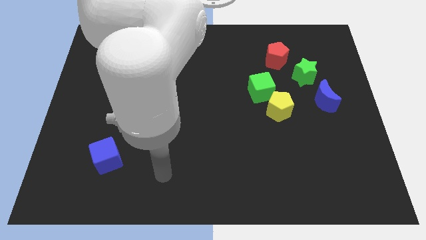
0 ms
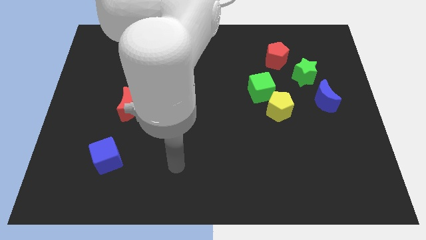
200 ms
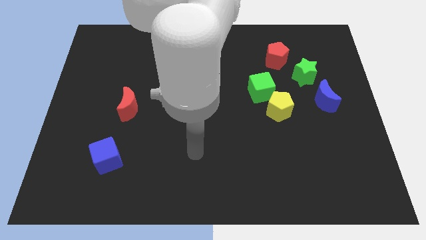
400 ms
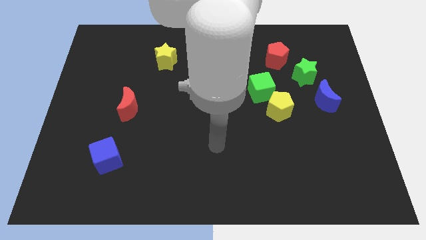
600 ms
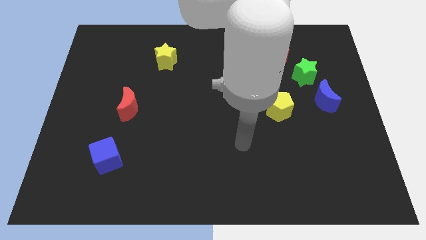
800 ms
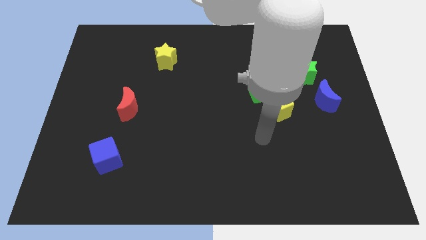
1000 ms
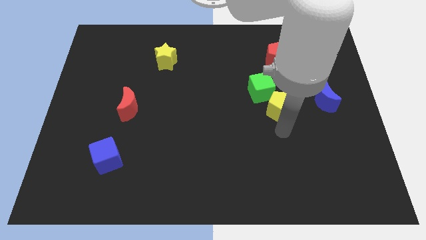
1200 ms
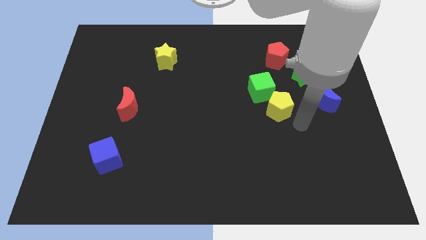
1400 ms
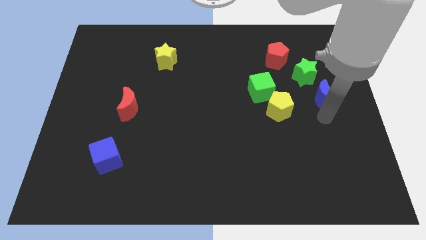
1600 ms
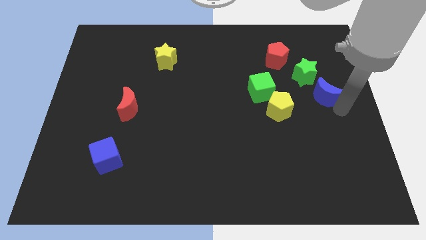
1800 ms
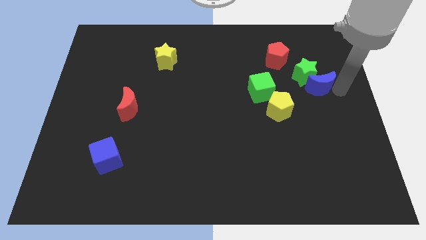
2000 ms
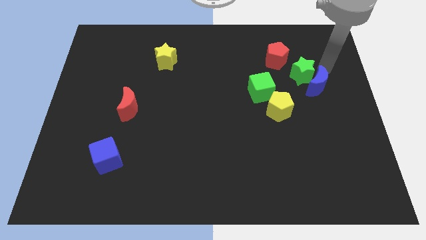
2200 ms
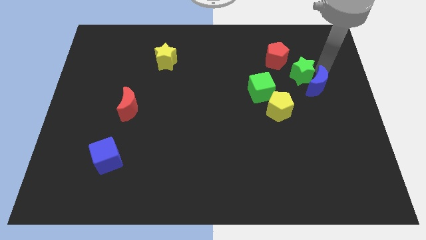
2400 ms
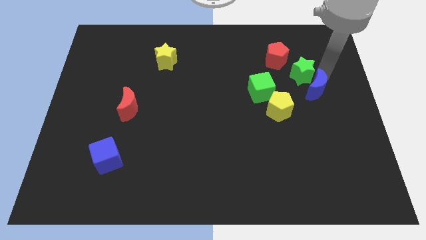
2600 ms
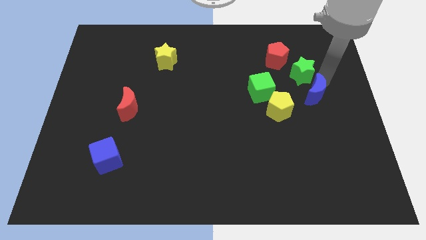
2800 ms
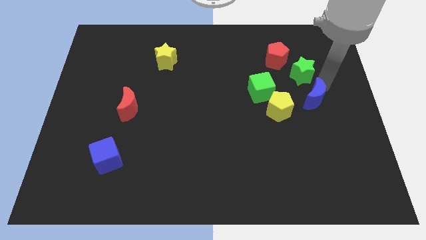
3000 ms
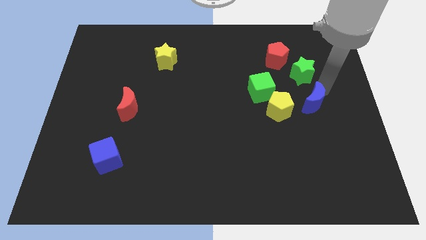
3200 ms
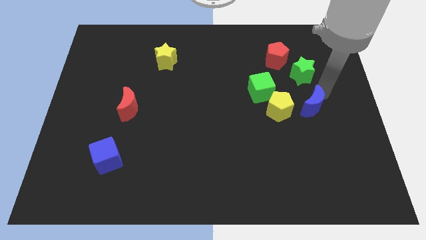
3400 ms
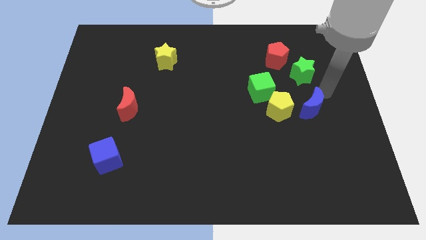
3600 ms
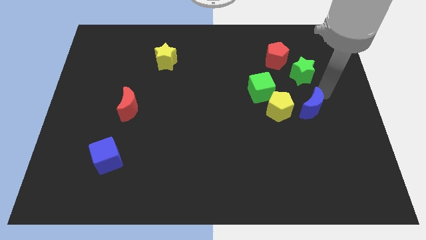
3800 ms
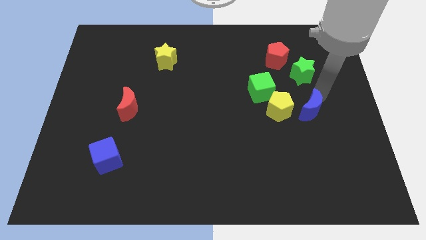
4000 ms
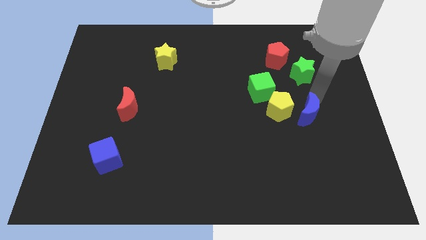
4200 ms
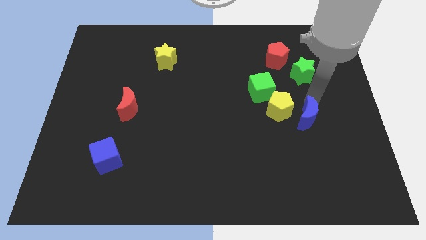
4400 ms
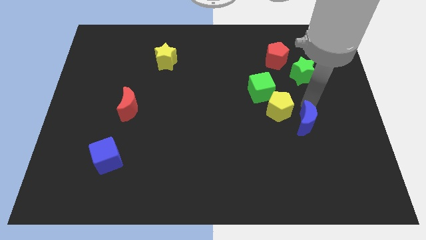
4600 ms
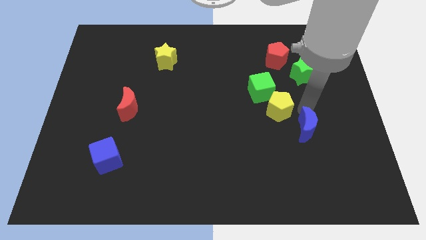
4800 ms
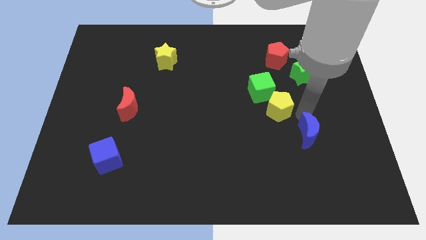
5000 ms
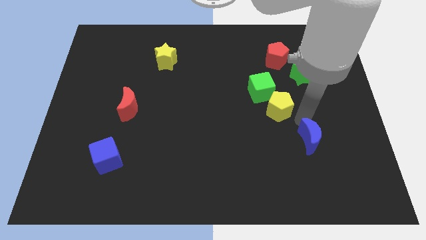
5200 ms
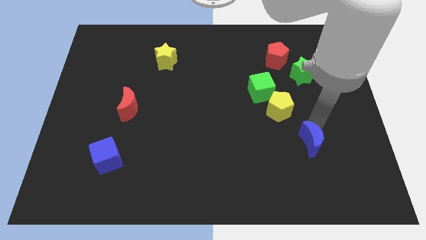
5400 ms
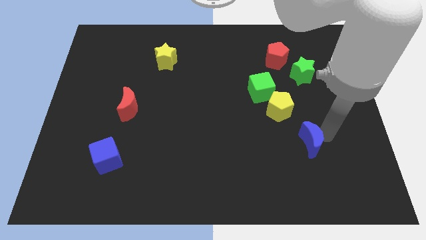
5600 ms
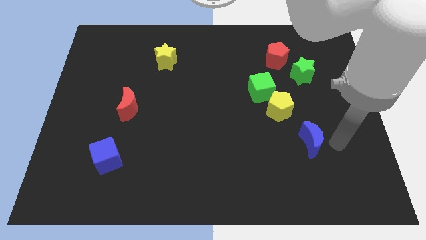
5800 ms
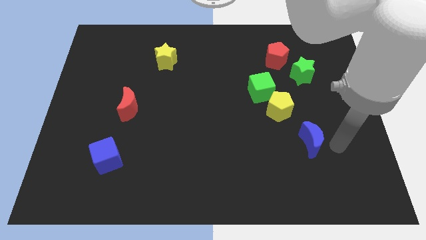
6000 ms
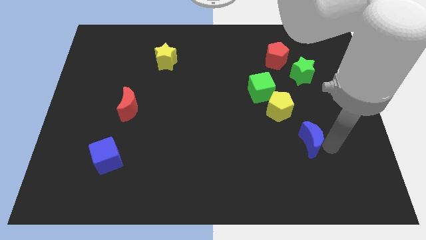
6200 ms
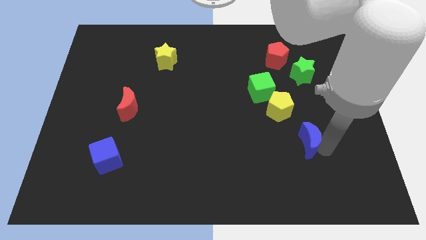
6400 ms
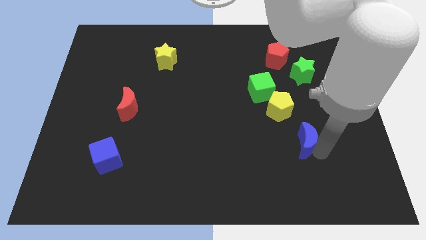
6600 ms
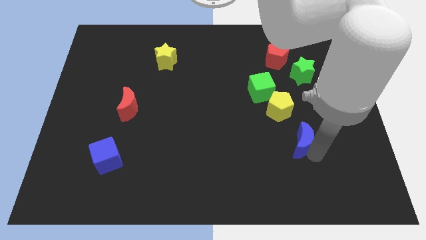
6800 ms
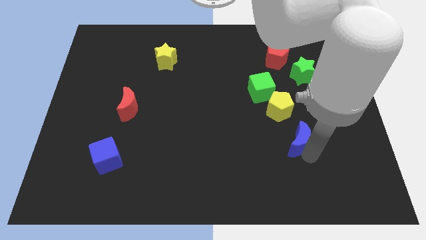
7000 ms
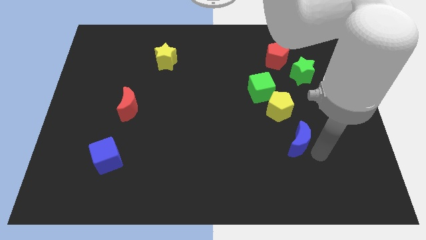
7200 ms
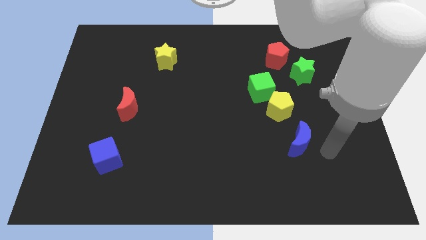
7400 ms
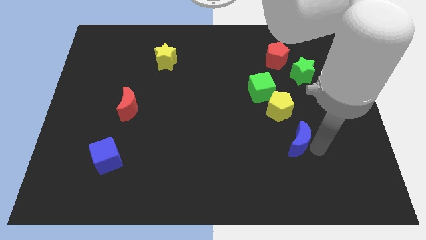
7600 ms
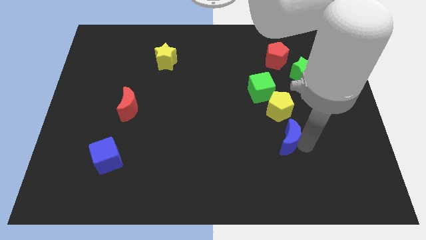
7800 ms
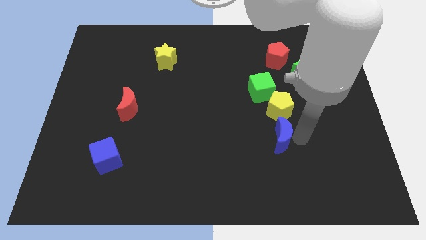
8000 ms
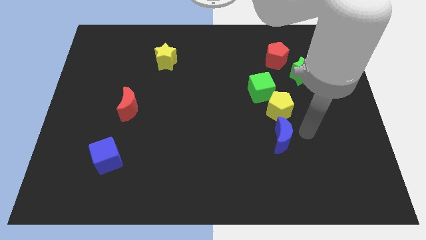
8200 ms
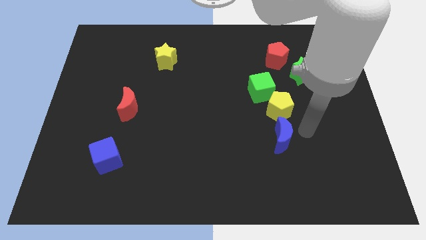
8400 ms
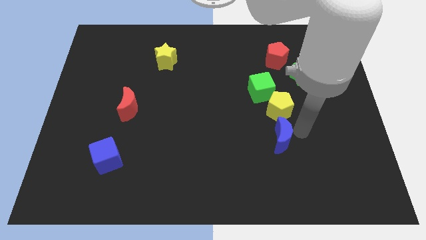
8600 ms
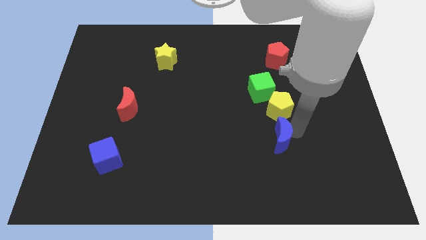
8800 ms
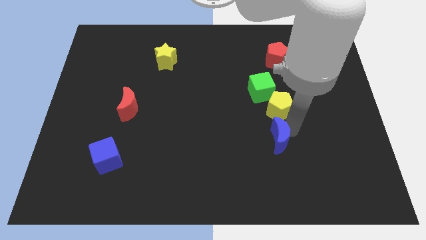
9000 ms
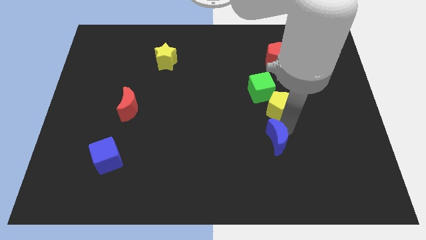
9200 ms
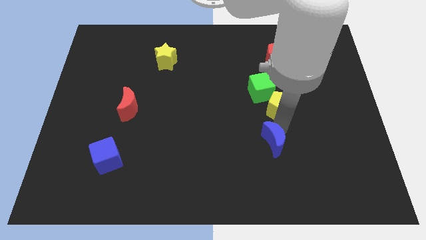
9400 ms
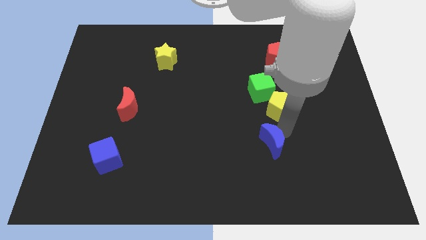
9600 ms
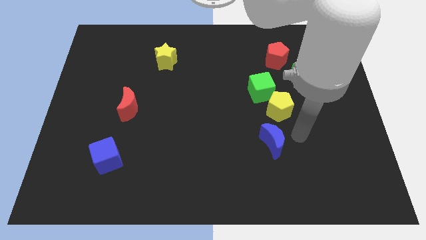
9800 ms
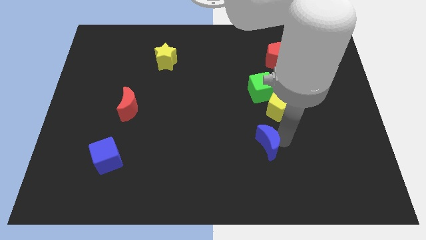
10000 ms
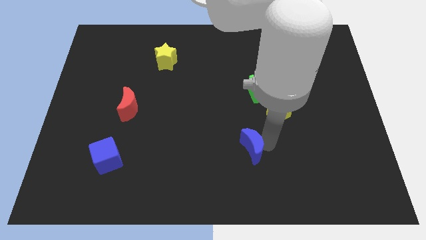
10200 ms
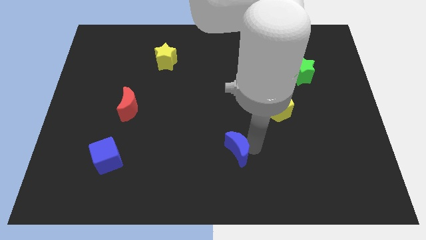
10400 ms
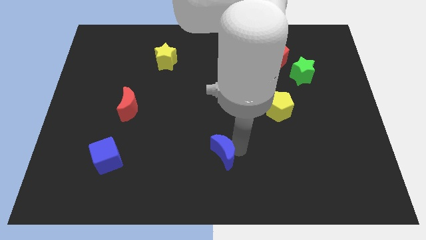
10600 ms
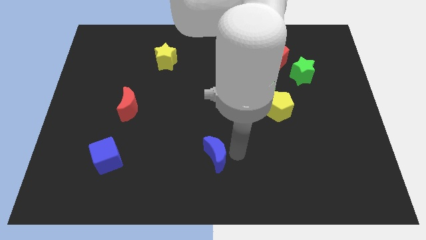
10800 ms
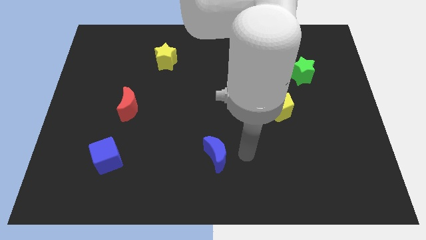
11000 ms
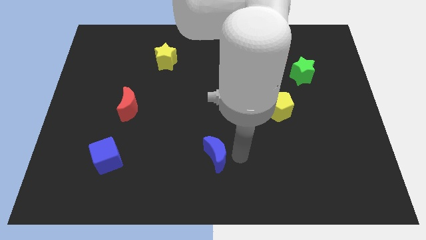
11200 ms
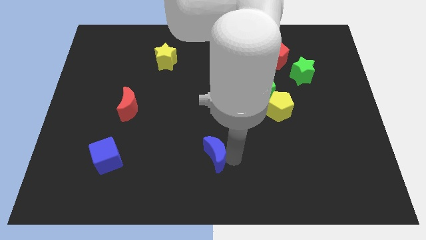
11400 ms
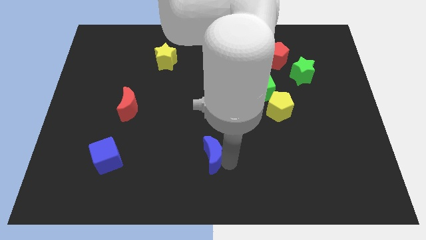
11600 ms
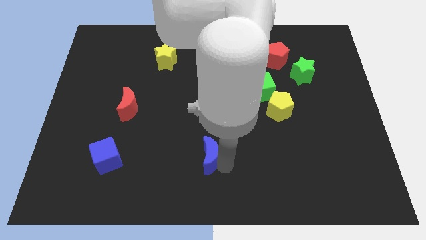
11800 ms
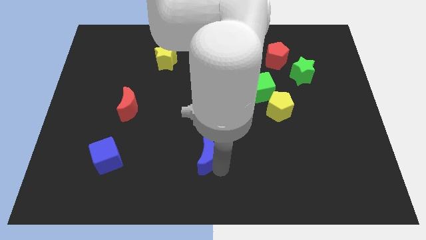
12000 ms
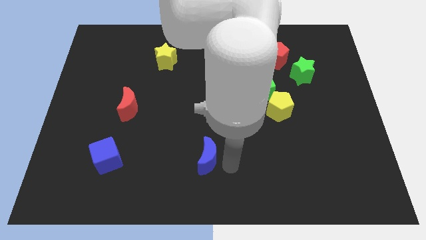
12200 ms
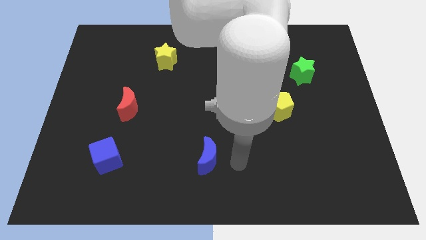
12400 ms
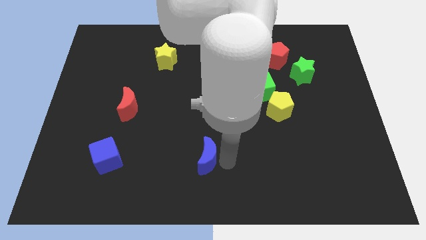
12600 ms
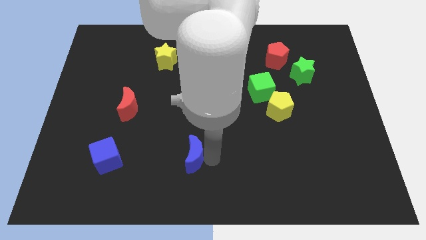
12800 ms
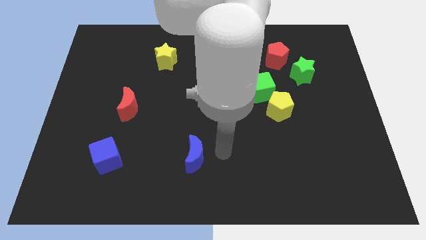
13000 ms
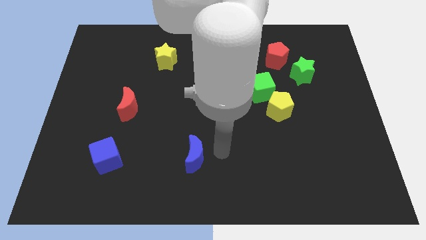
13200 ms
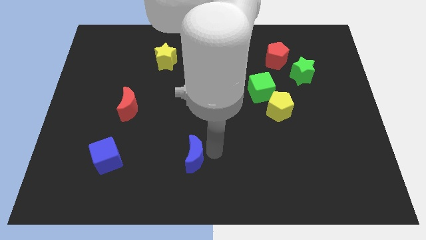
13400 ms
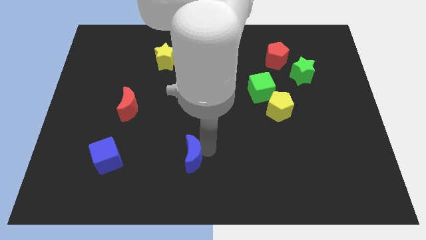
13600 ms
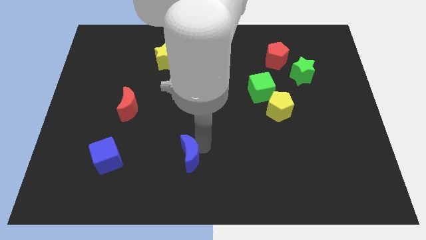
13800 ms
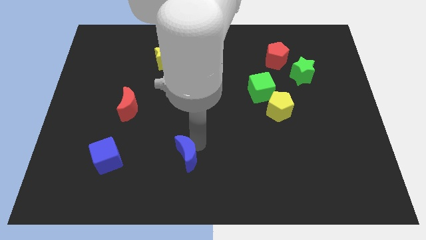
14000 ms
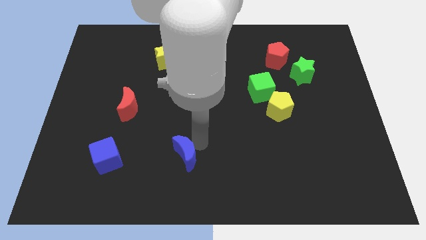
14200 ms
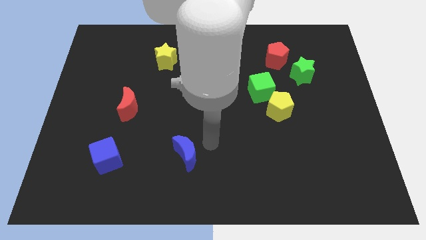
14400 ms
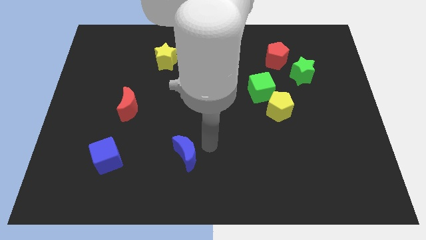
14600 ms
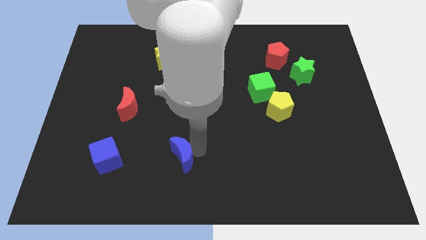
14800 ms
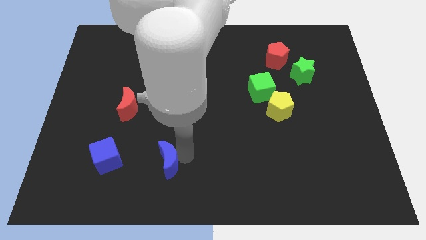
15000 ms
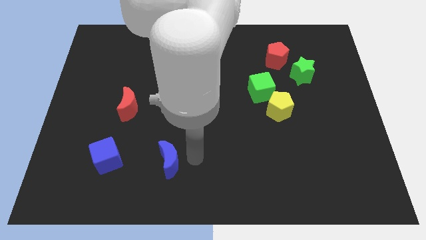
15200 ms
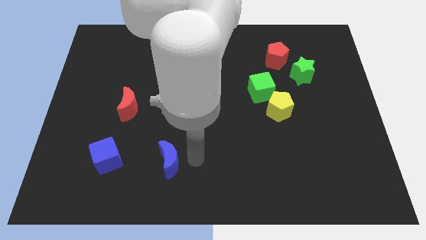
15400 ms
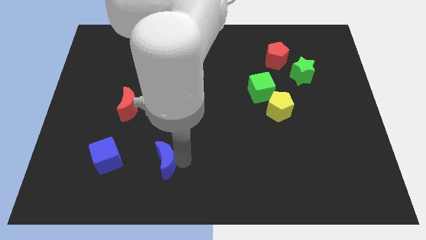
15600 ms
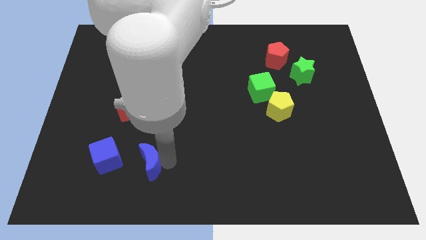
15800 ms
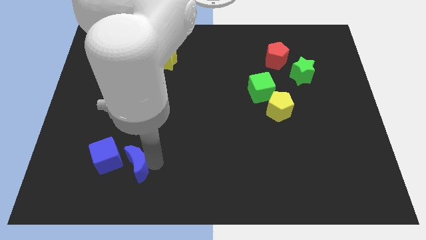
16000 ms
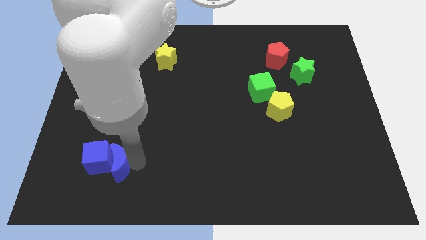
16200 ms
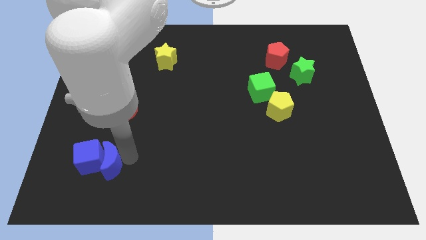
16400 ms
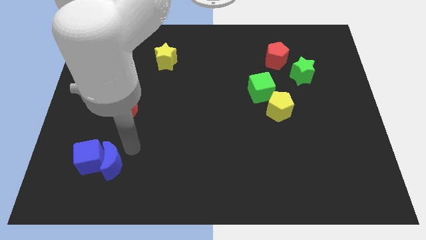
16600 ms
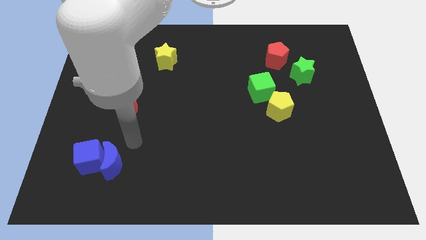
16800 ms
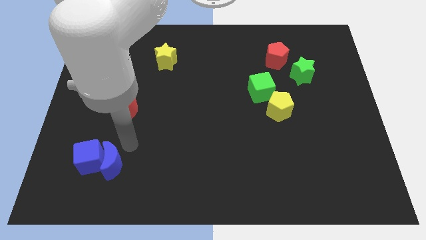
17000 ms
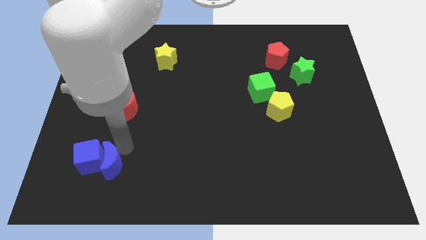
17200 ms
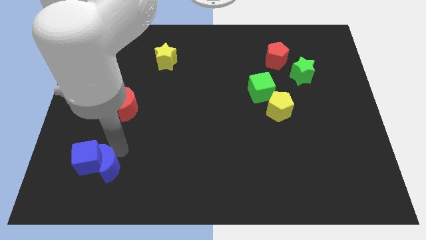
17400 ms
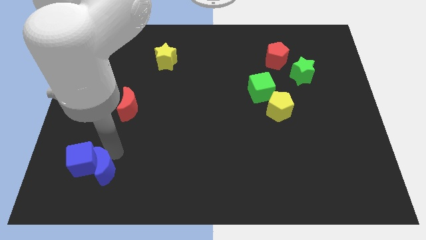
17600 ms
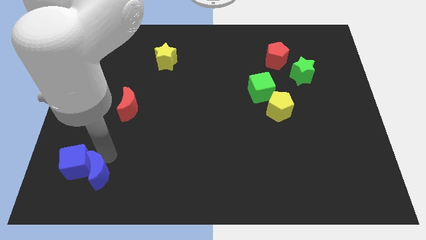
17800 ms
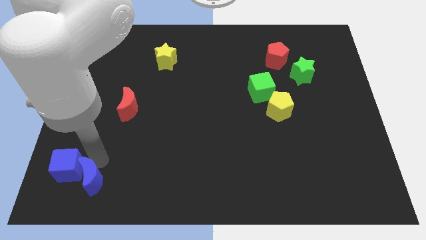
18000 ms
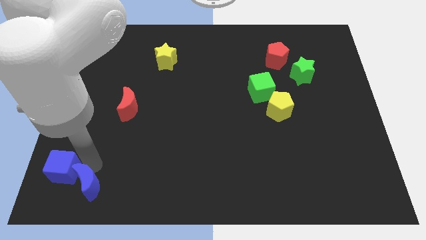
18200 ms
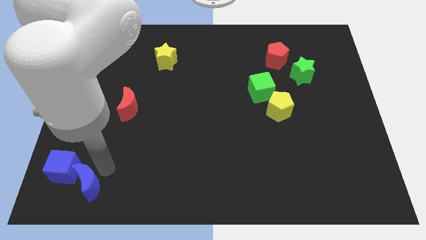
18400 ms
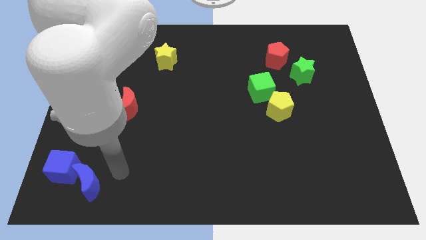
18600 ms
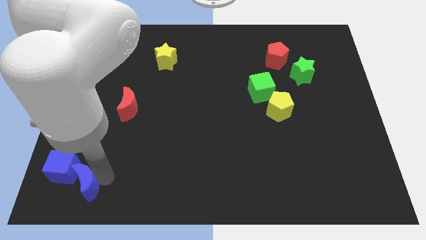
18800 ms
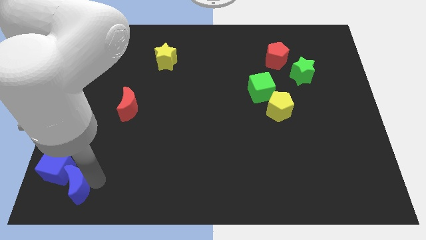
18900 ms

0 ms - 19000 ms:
move the blue moon to the lower left corner
